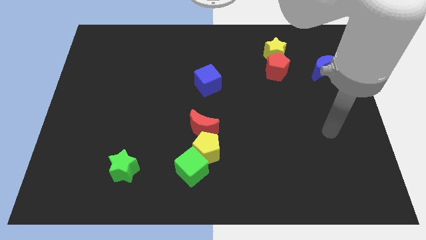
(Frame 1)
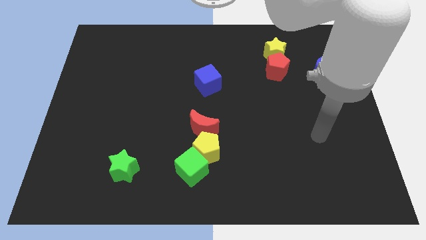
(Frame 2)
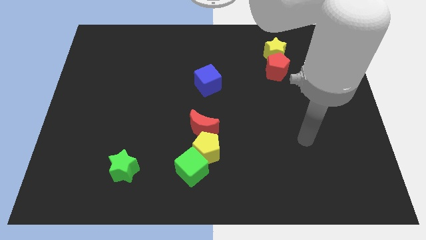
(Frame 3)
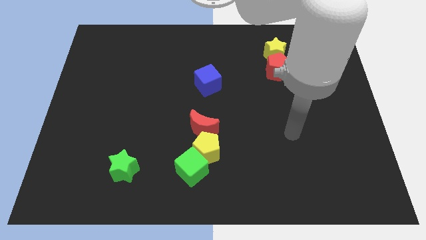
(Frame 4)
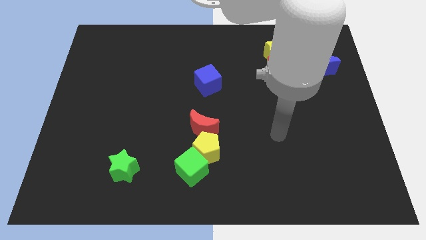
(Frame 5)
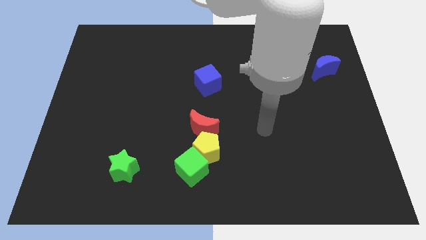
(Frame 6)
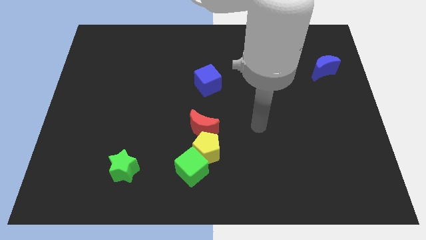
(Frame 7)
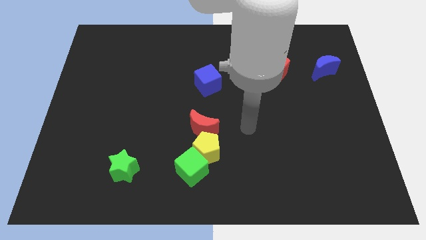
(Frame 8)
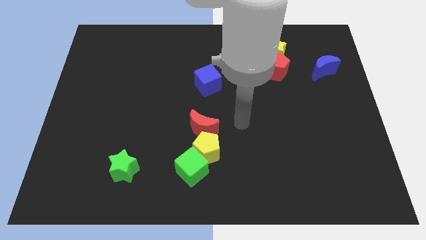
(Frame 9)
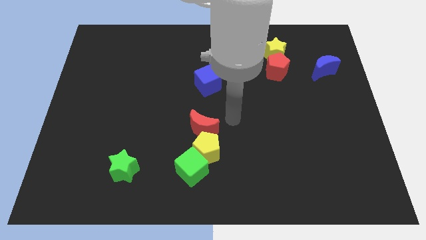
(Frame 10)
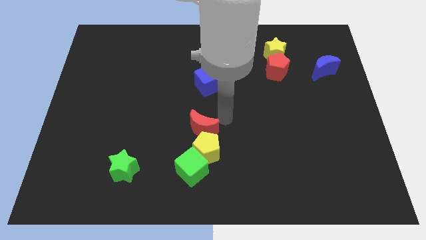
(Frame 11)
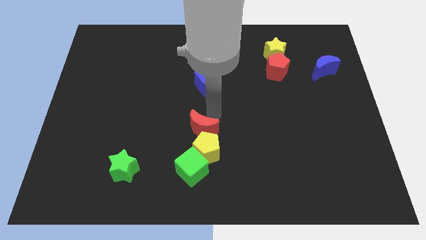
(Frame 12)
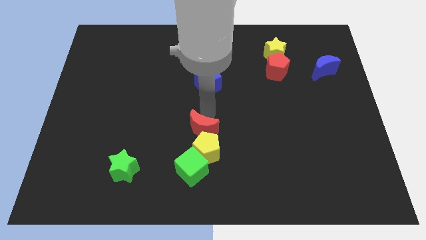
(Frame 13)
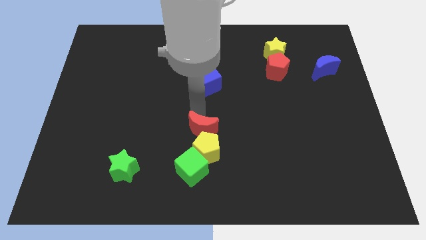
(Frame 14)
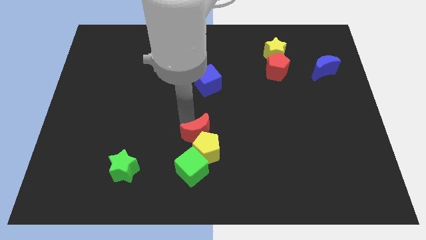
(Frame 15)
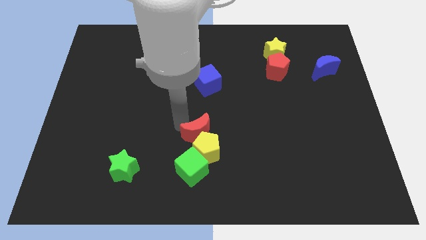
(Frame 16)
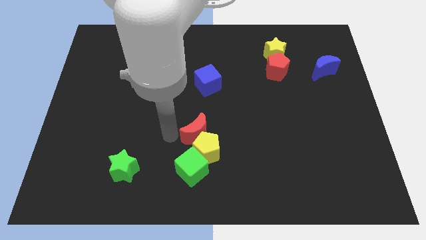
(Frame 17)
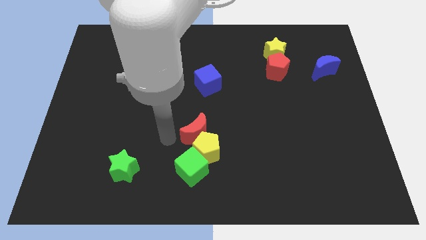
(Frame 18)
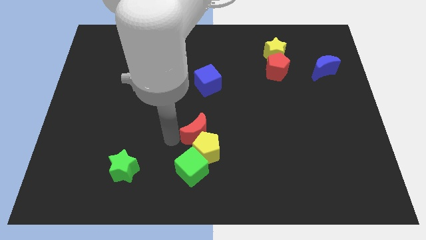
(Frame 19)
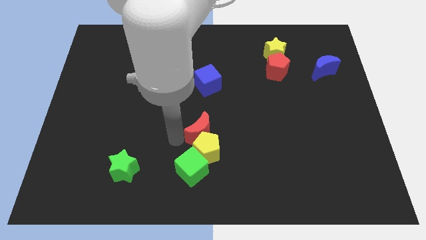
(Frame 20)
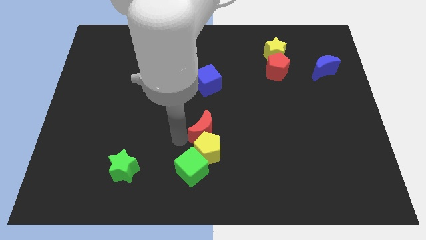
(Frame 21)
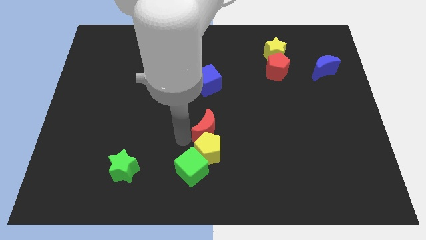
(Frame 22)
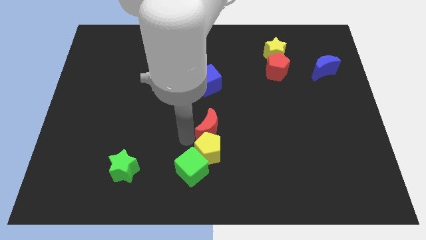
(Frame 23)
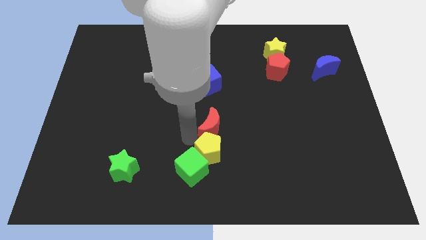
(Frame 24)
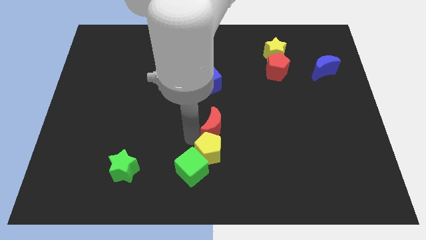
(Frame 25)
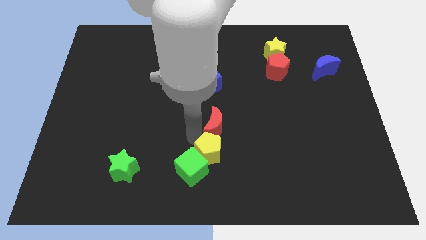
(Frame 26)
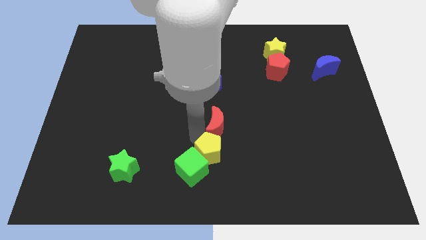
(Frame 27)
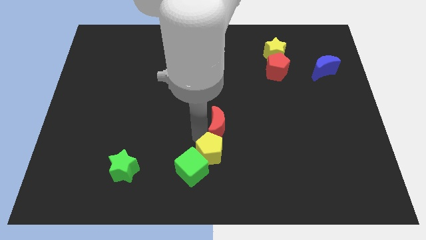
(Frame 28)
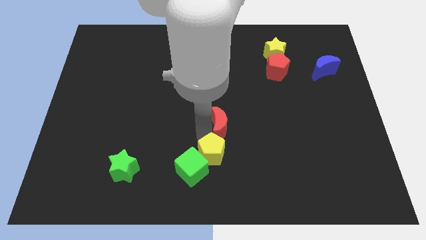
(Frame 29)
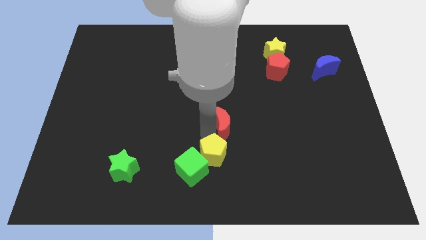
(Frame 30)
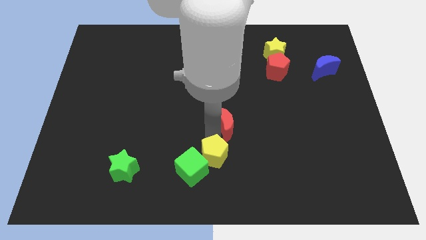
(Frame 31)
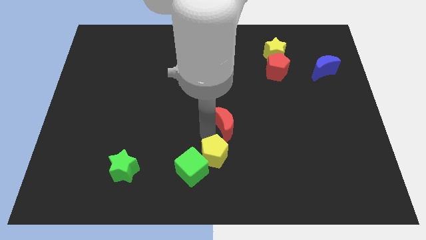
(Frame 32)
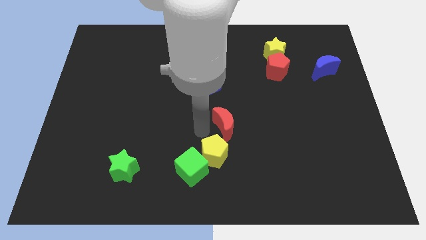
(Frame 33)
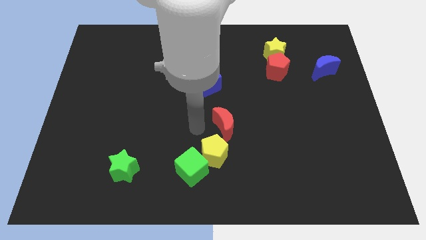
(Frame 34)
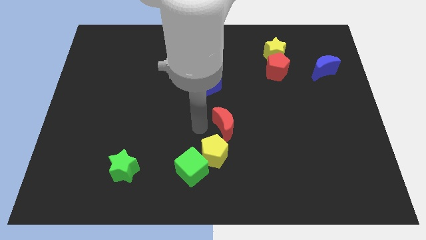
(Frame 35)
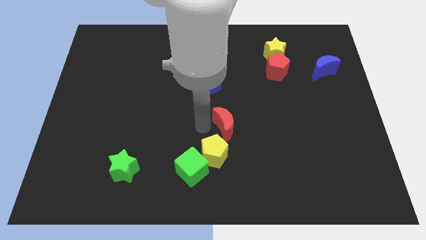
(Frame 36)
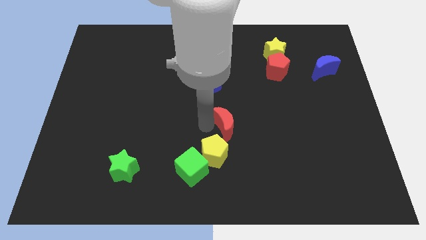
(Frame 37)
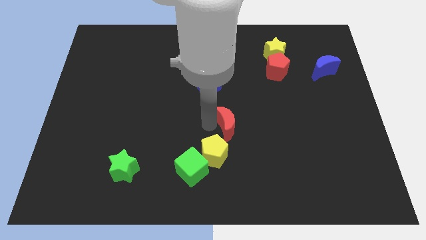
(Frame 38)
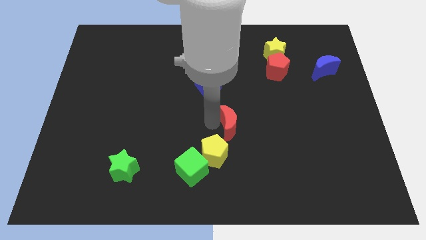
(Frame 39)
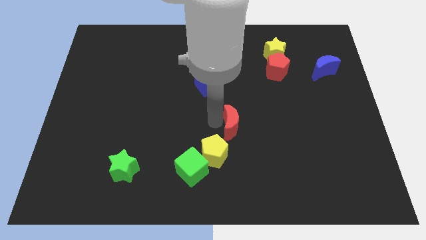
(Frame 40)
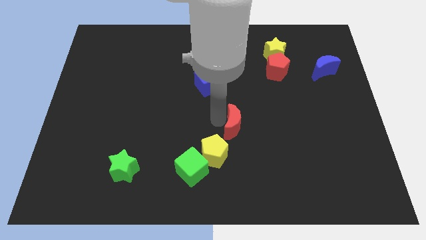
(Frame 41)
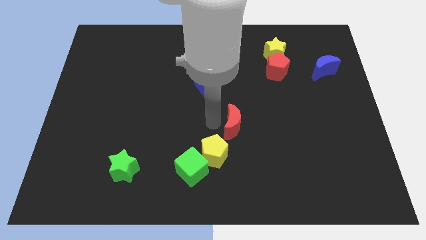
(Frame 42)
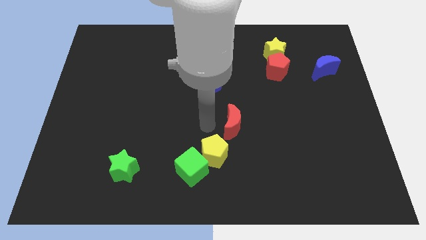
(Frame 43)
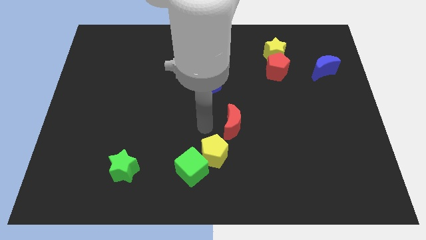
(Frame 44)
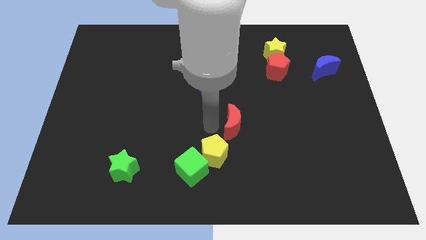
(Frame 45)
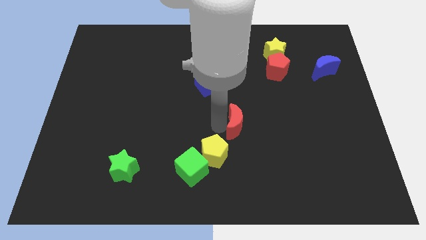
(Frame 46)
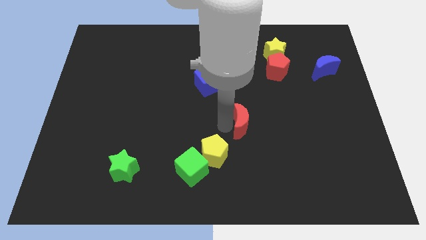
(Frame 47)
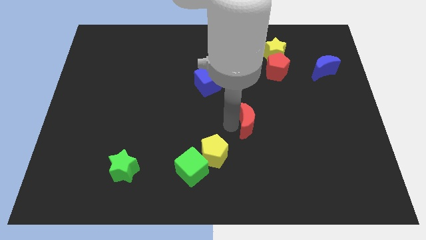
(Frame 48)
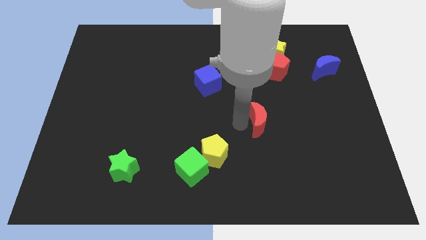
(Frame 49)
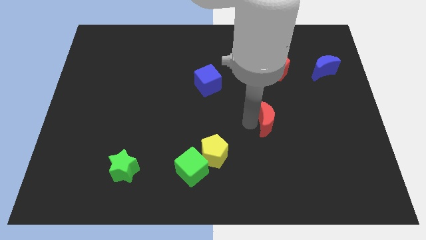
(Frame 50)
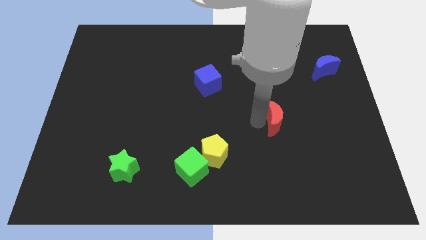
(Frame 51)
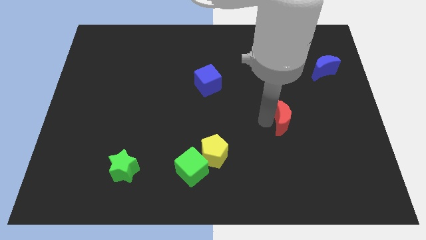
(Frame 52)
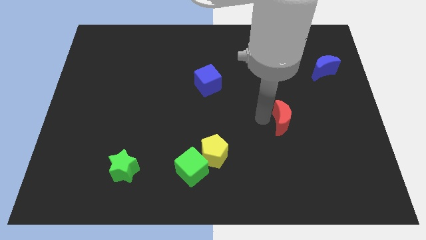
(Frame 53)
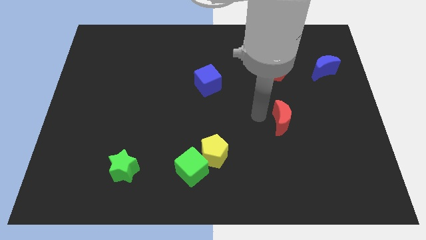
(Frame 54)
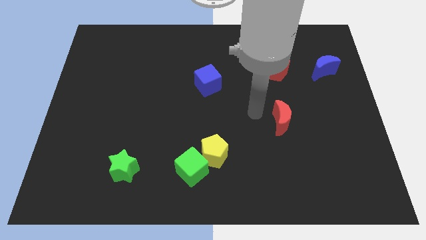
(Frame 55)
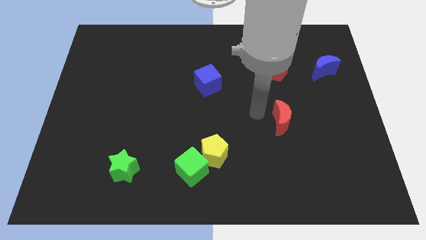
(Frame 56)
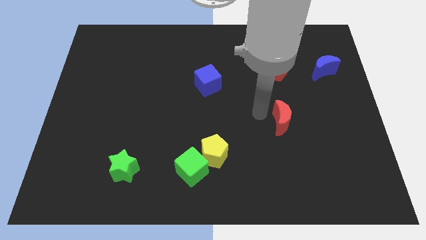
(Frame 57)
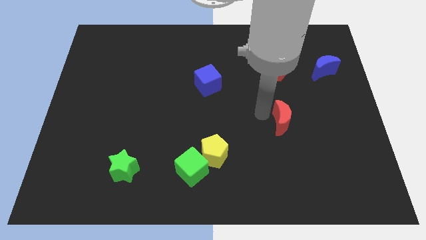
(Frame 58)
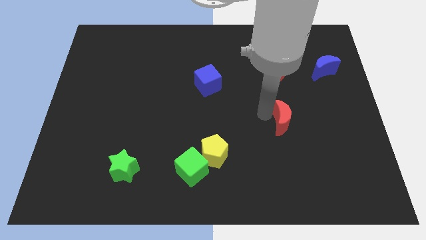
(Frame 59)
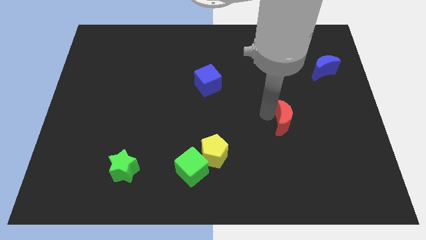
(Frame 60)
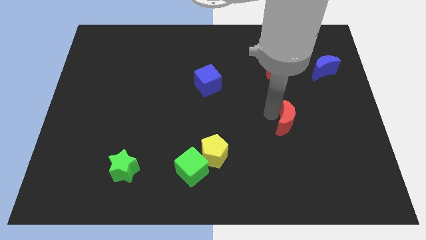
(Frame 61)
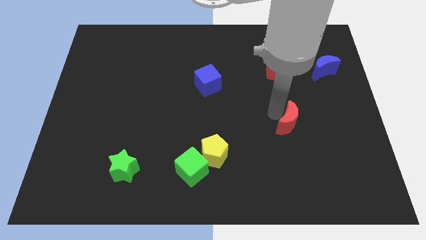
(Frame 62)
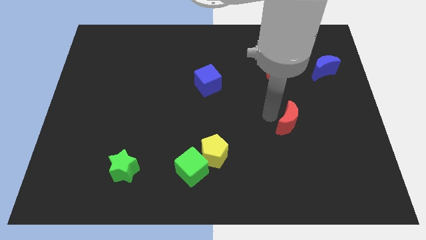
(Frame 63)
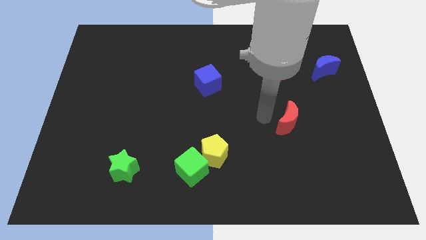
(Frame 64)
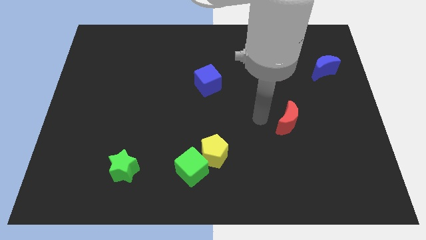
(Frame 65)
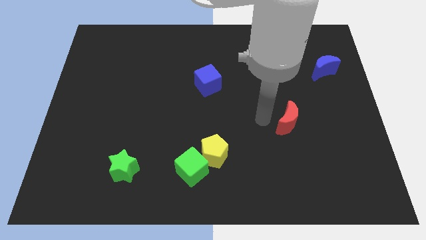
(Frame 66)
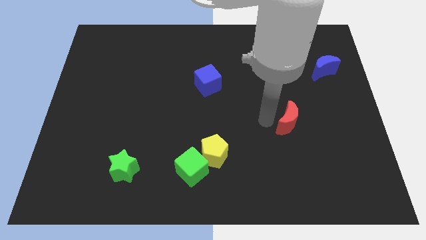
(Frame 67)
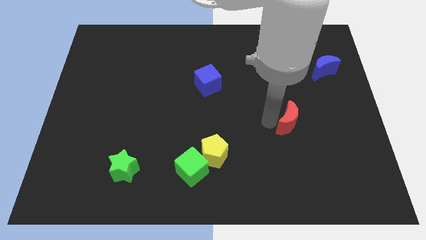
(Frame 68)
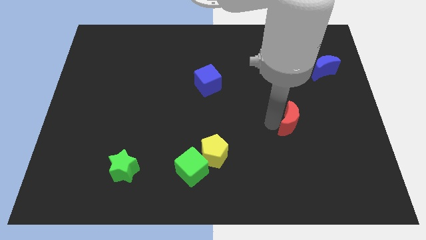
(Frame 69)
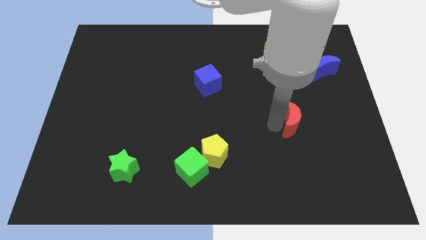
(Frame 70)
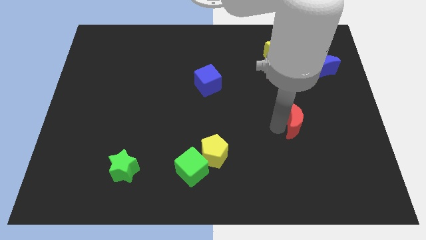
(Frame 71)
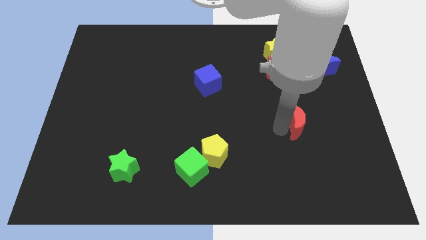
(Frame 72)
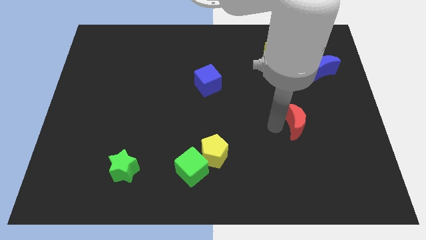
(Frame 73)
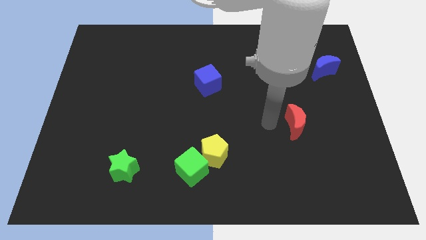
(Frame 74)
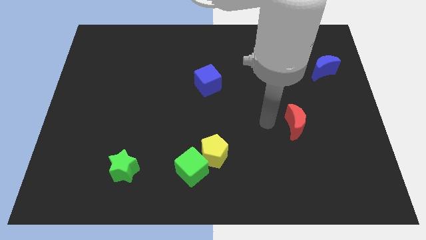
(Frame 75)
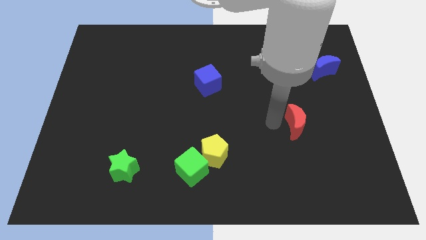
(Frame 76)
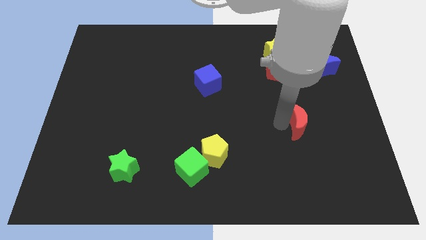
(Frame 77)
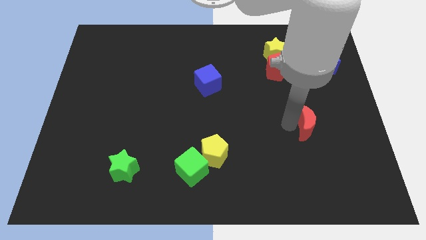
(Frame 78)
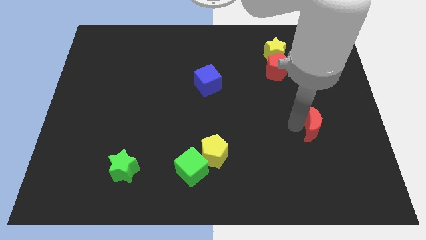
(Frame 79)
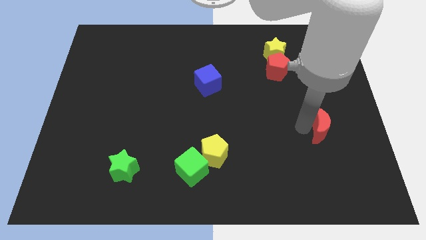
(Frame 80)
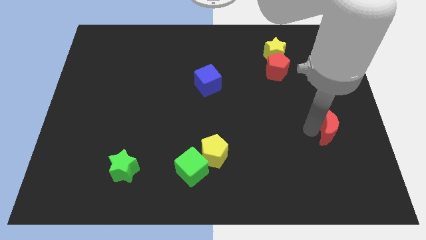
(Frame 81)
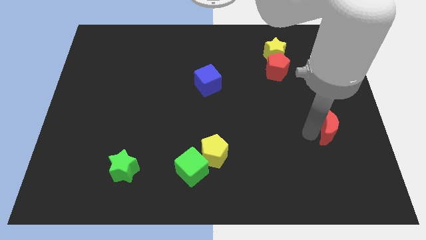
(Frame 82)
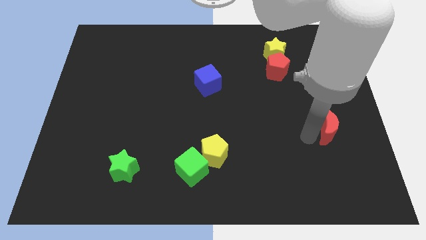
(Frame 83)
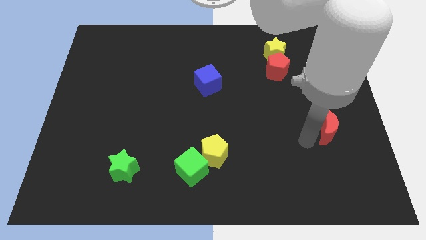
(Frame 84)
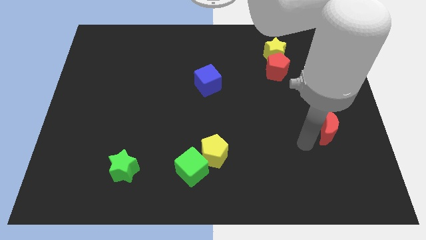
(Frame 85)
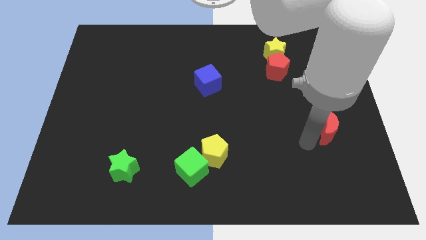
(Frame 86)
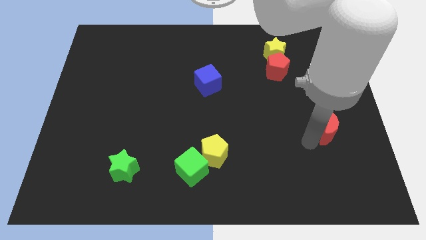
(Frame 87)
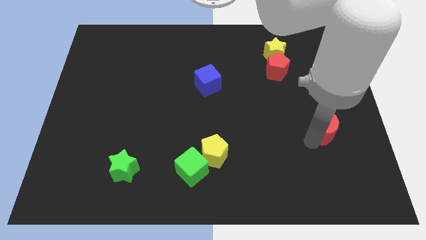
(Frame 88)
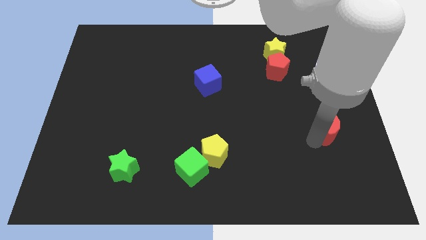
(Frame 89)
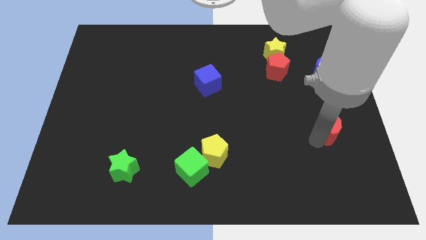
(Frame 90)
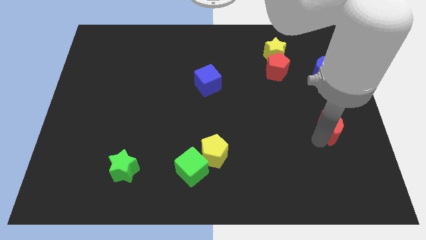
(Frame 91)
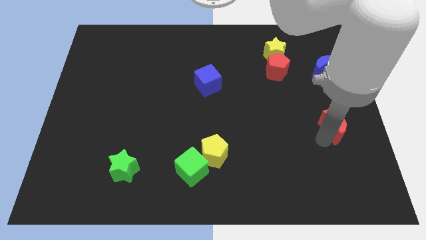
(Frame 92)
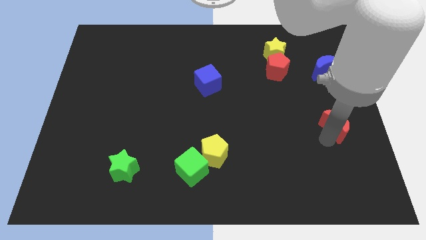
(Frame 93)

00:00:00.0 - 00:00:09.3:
move the red moon to the center right
